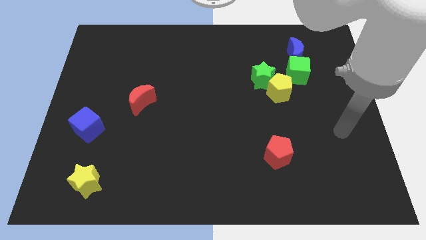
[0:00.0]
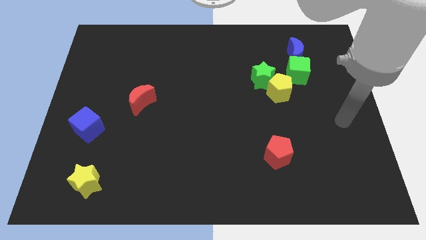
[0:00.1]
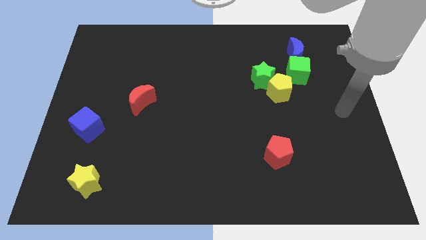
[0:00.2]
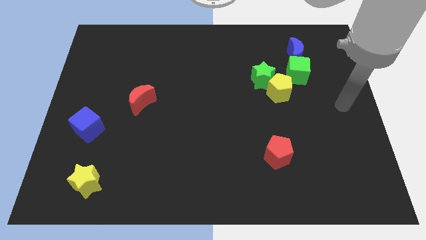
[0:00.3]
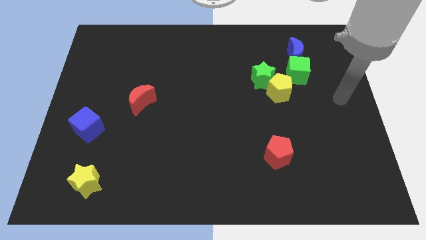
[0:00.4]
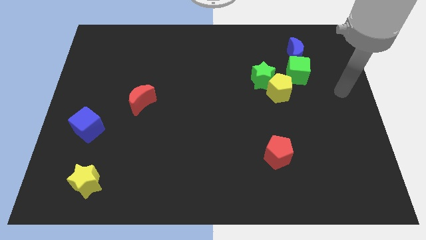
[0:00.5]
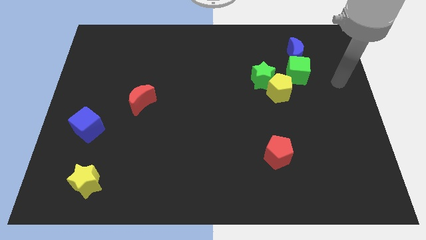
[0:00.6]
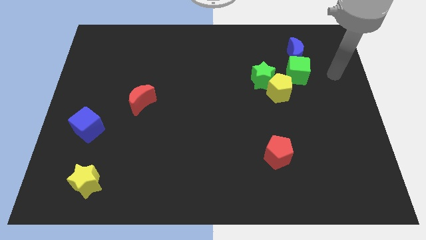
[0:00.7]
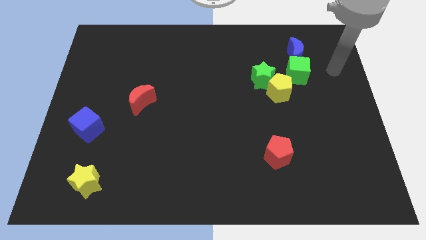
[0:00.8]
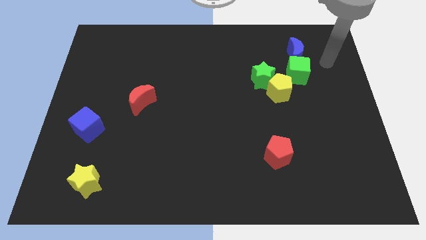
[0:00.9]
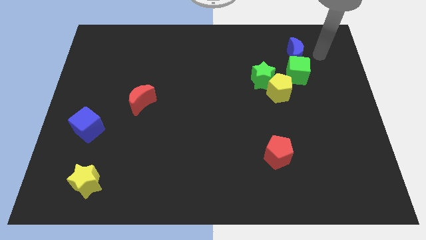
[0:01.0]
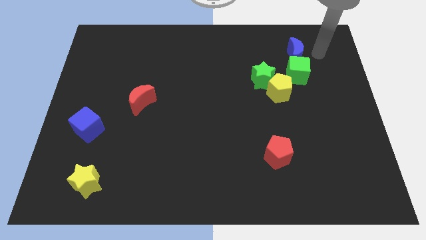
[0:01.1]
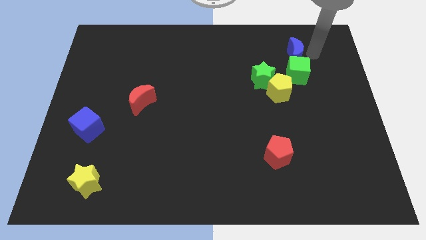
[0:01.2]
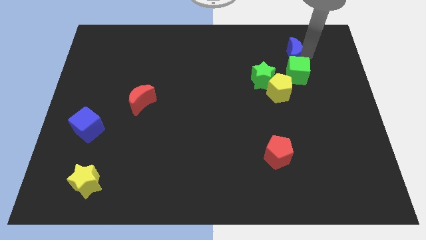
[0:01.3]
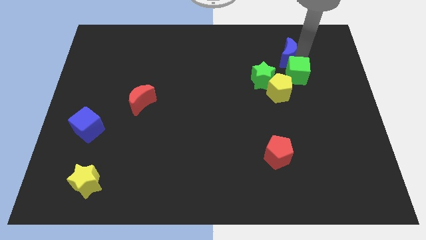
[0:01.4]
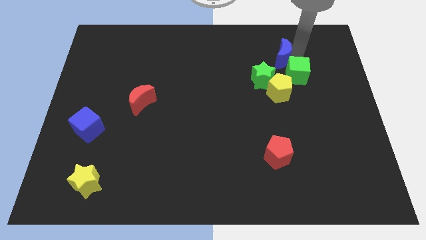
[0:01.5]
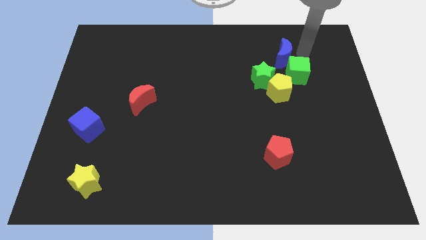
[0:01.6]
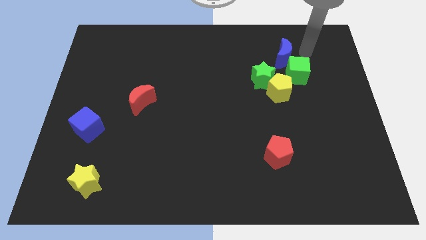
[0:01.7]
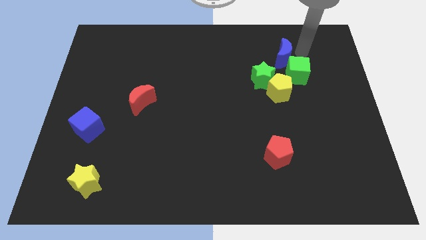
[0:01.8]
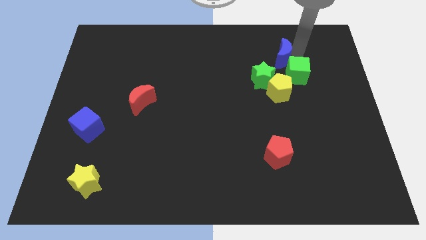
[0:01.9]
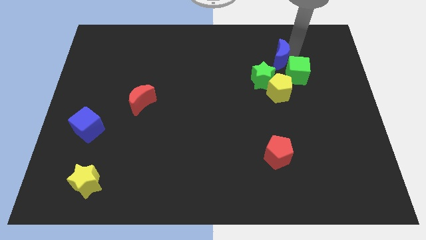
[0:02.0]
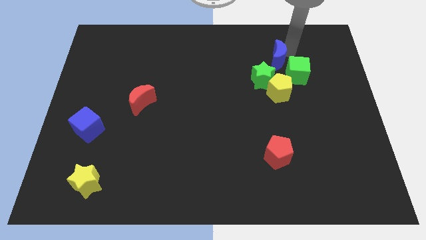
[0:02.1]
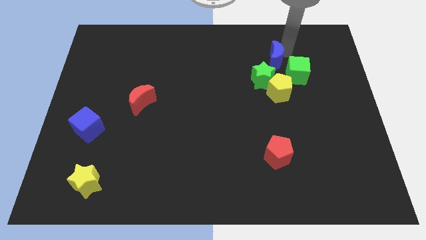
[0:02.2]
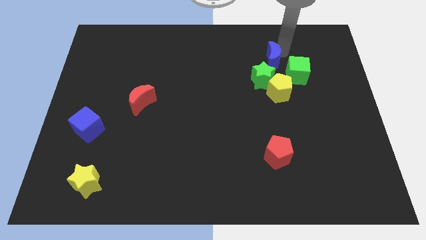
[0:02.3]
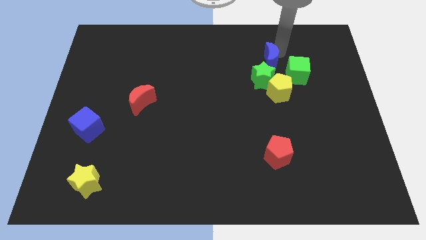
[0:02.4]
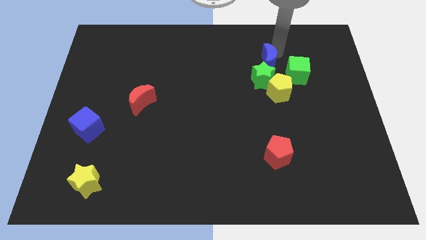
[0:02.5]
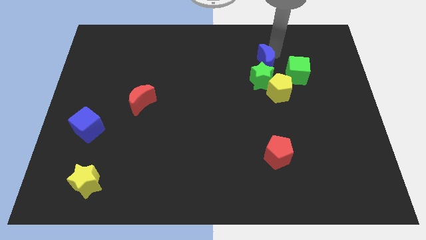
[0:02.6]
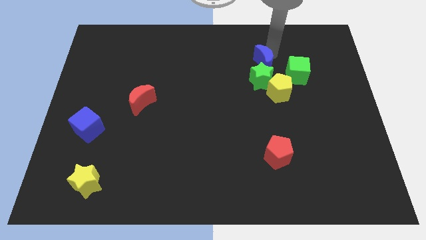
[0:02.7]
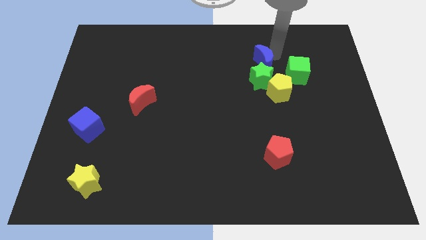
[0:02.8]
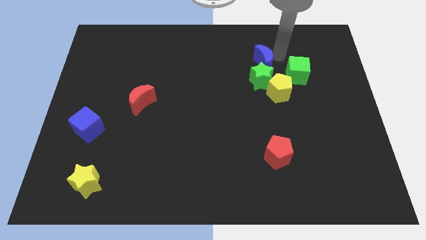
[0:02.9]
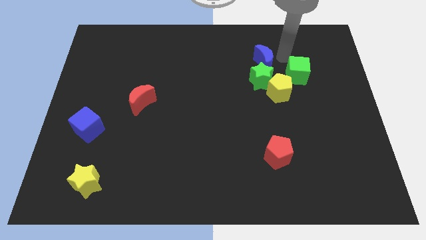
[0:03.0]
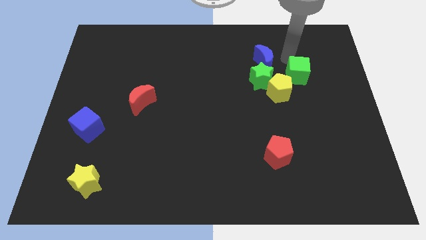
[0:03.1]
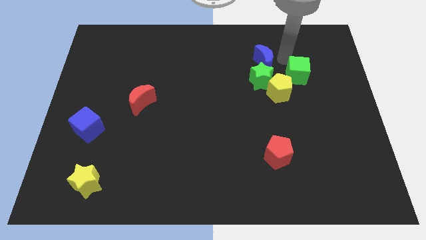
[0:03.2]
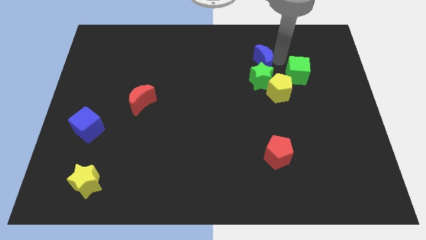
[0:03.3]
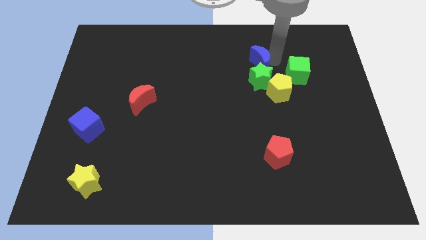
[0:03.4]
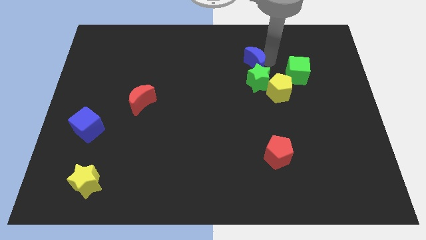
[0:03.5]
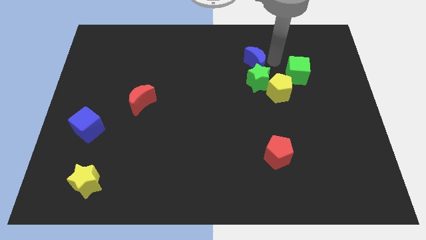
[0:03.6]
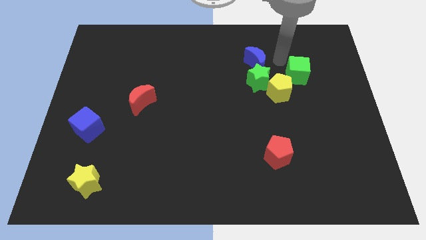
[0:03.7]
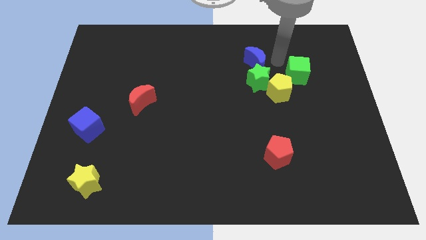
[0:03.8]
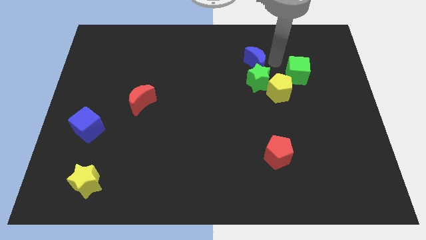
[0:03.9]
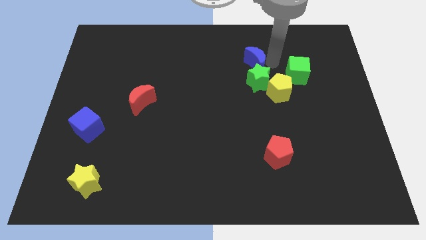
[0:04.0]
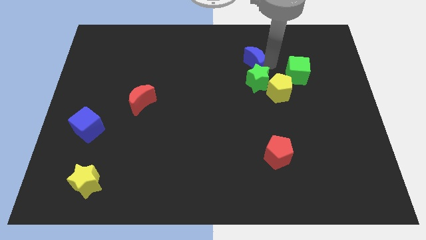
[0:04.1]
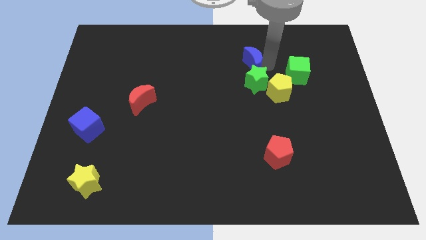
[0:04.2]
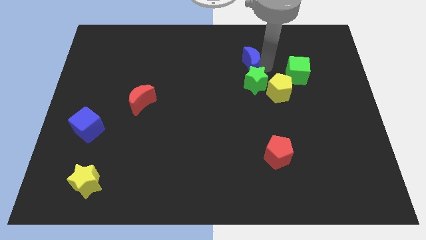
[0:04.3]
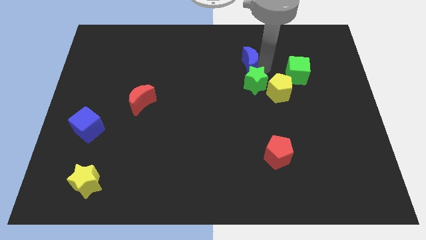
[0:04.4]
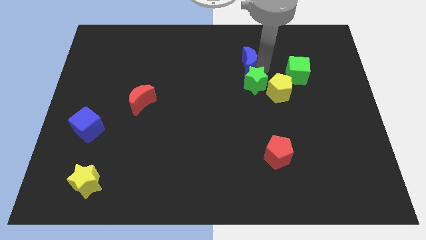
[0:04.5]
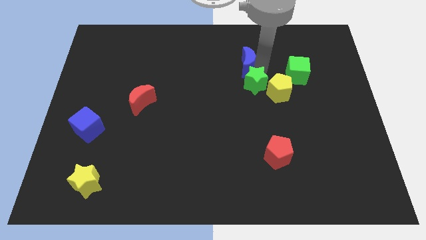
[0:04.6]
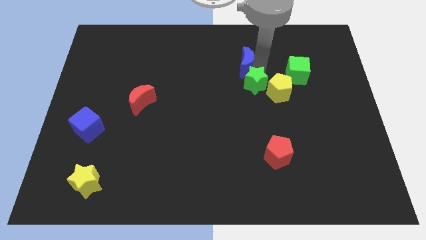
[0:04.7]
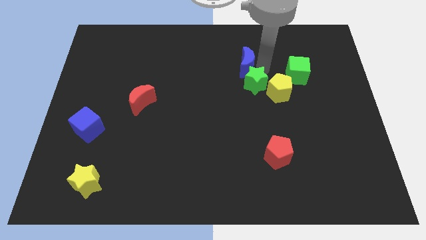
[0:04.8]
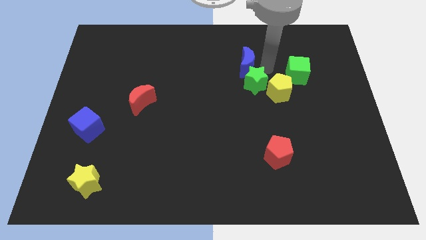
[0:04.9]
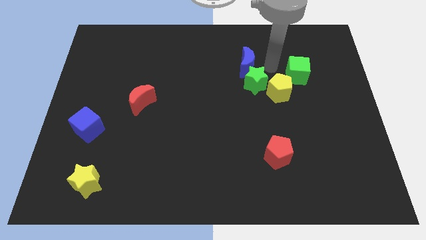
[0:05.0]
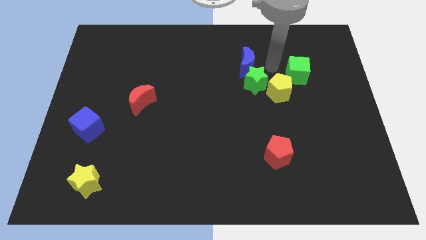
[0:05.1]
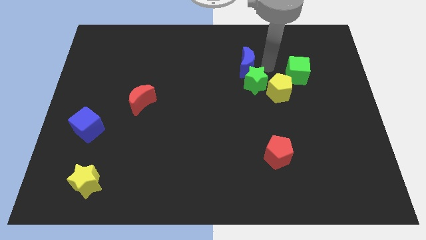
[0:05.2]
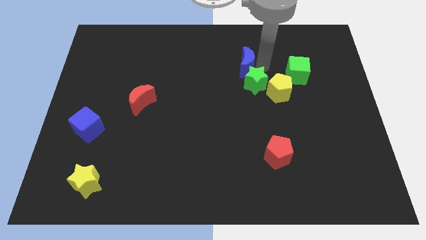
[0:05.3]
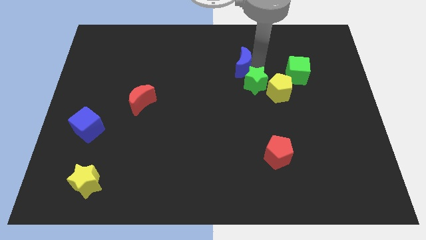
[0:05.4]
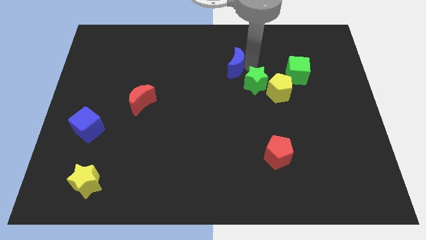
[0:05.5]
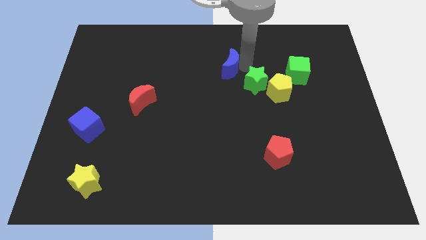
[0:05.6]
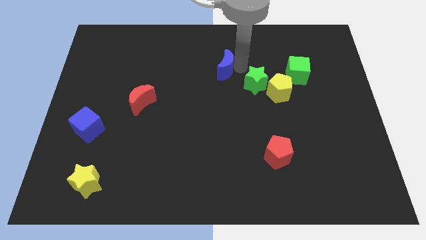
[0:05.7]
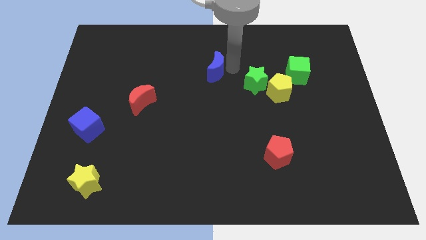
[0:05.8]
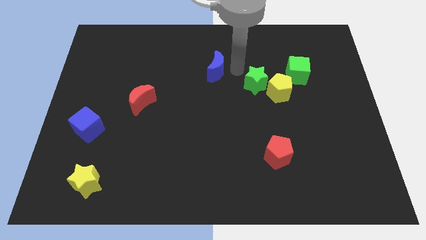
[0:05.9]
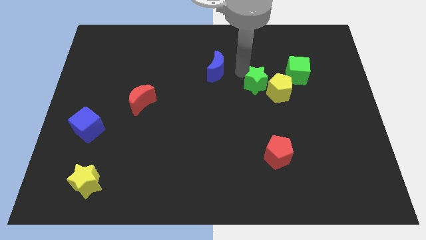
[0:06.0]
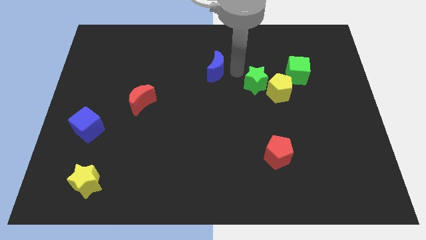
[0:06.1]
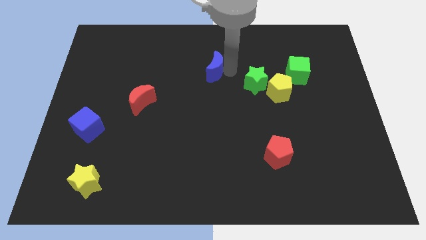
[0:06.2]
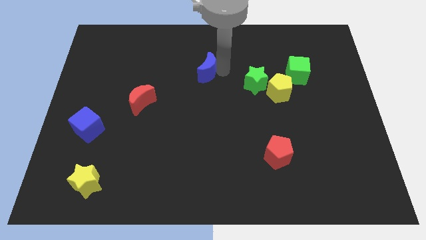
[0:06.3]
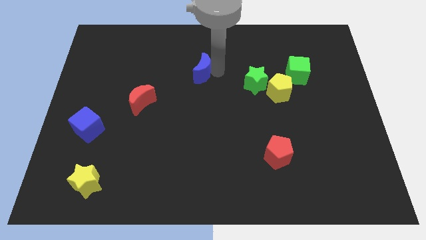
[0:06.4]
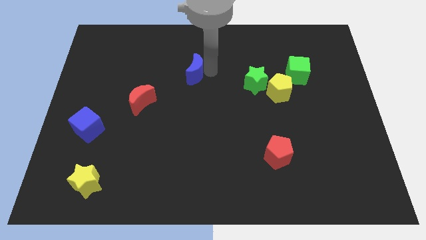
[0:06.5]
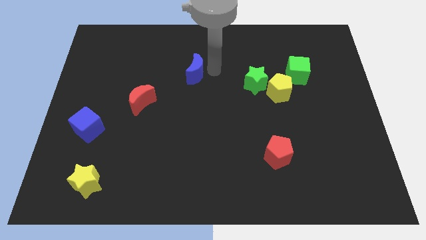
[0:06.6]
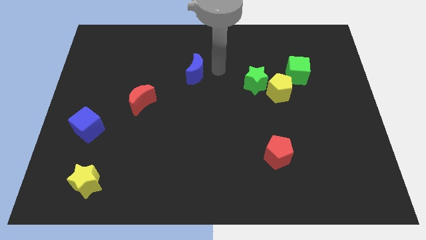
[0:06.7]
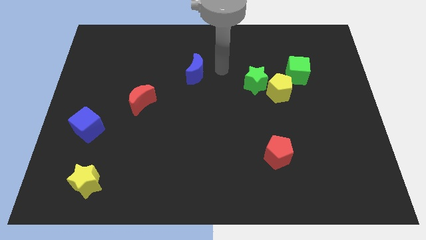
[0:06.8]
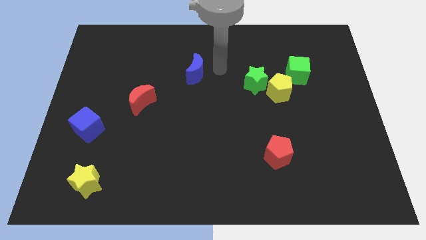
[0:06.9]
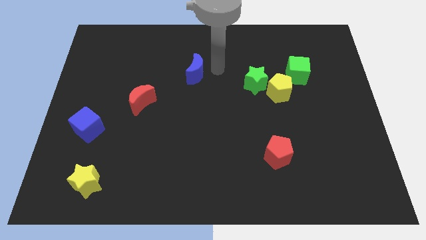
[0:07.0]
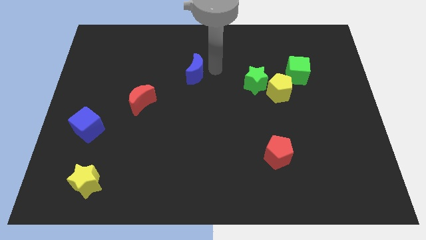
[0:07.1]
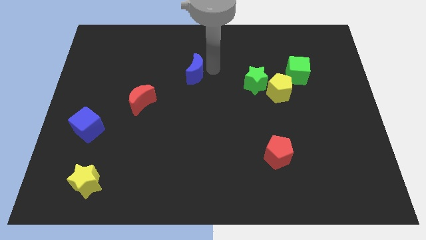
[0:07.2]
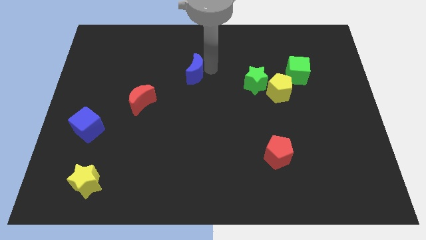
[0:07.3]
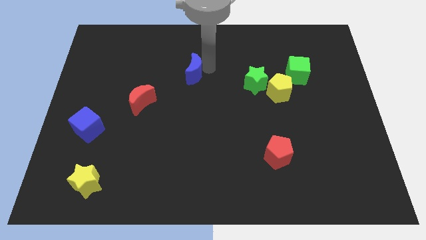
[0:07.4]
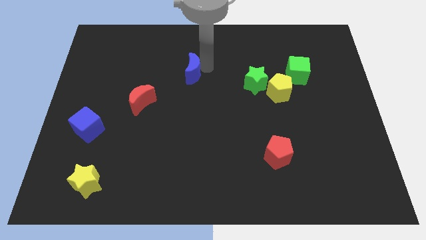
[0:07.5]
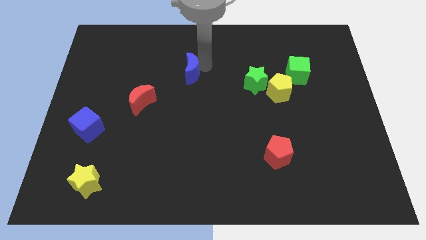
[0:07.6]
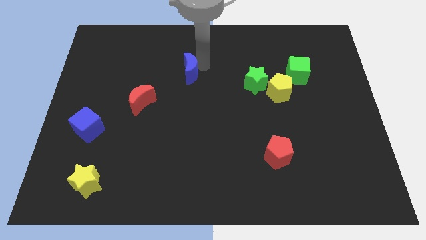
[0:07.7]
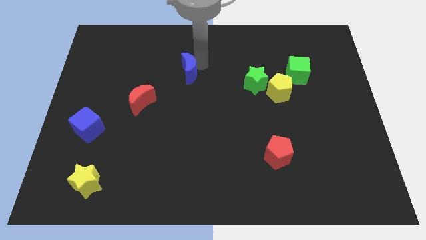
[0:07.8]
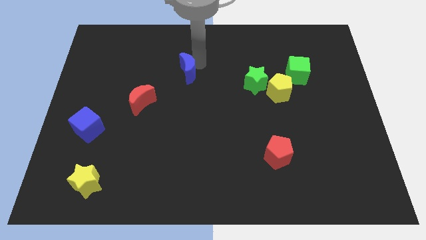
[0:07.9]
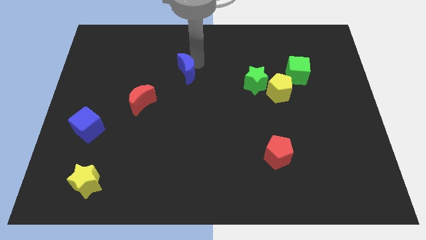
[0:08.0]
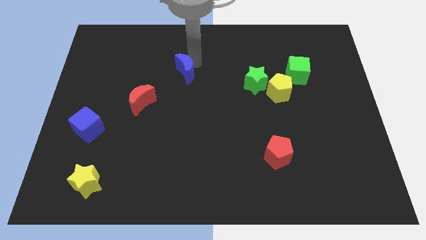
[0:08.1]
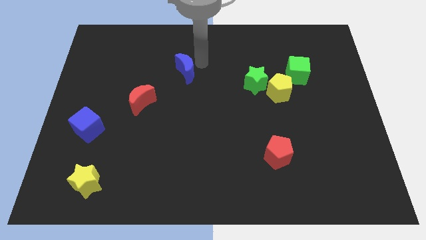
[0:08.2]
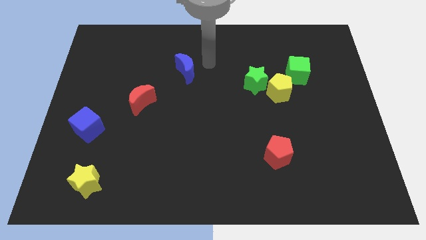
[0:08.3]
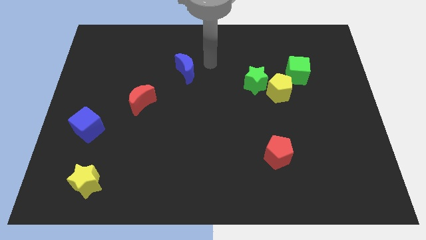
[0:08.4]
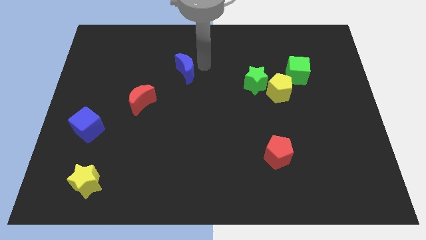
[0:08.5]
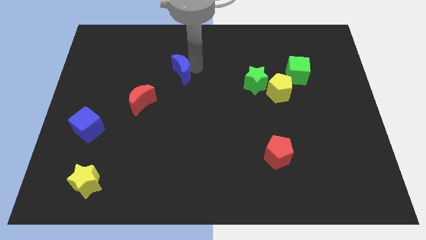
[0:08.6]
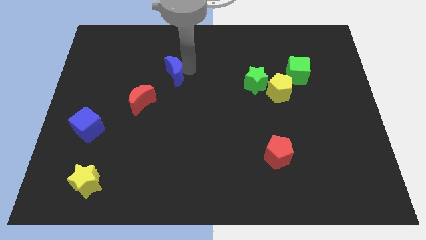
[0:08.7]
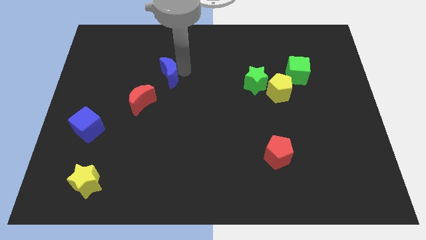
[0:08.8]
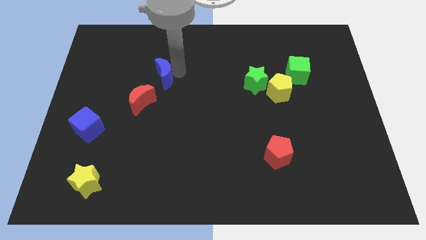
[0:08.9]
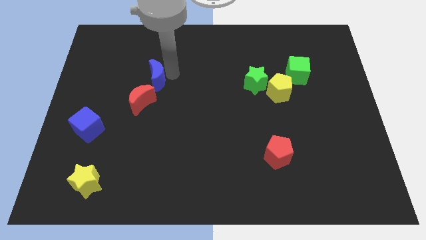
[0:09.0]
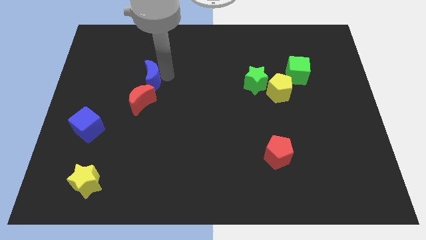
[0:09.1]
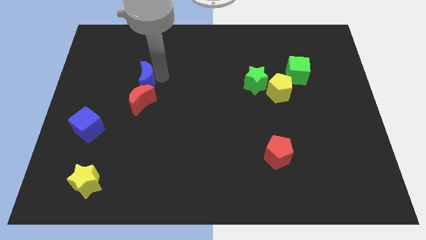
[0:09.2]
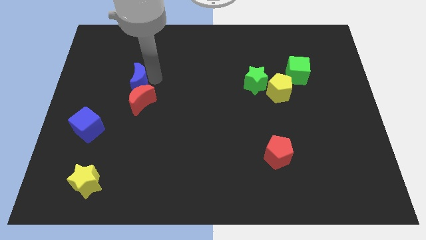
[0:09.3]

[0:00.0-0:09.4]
move the blue moon diagonally up and to the left of the red moon
